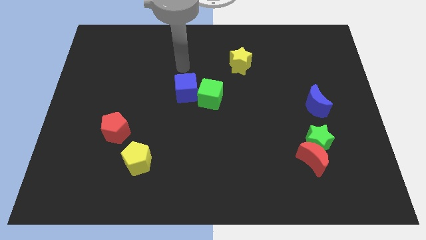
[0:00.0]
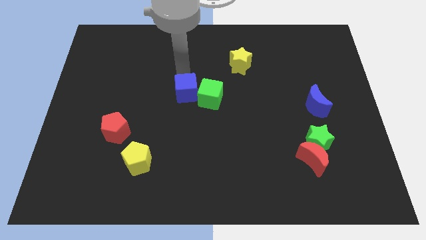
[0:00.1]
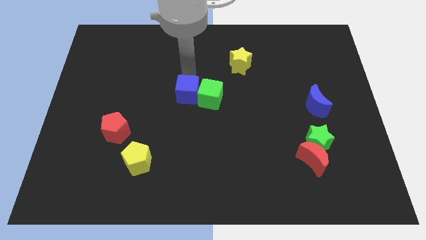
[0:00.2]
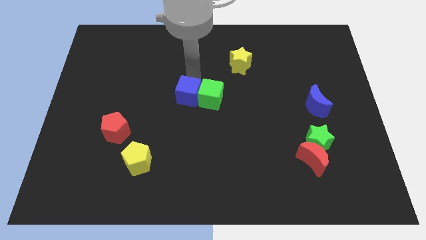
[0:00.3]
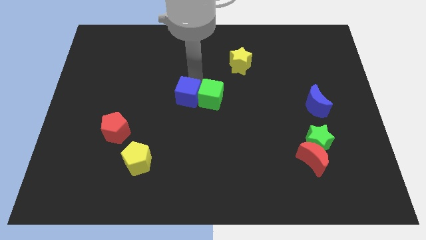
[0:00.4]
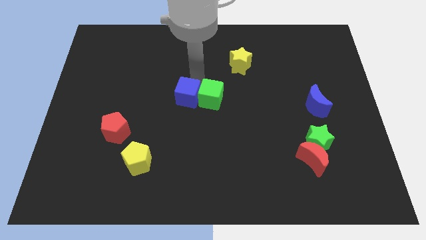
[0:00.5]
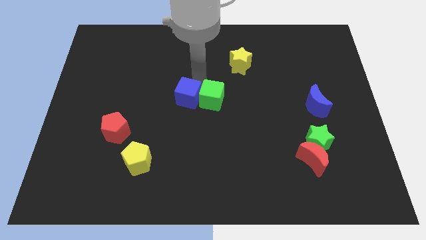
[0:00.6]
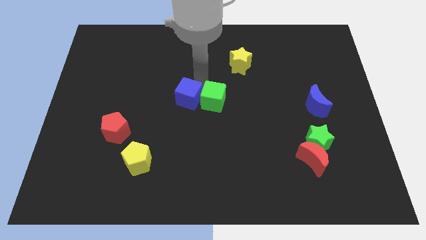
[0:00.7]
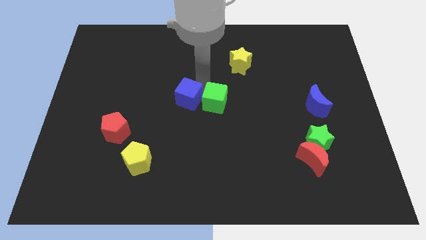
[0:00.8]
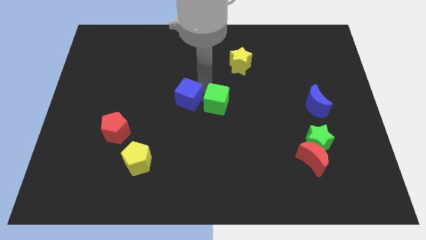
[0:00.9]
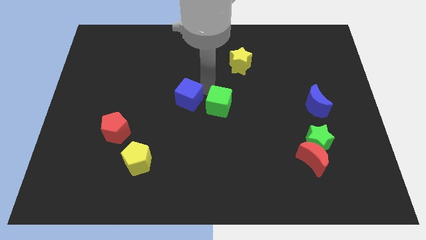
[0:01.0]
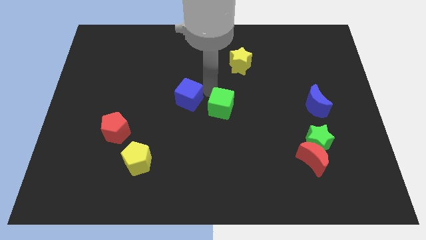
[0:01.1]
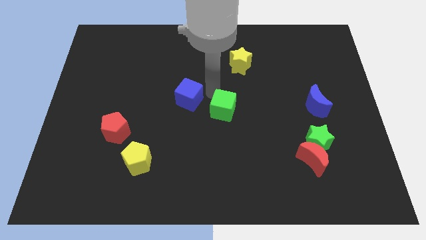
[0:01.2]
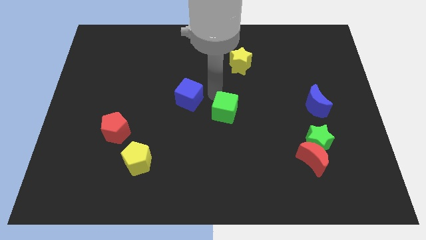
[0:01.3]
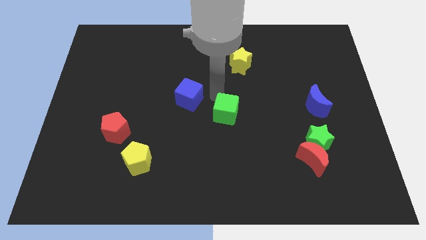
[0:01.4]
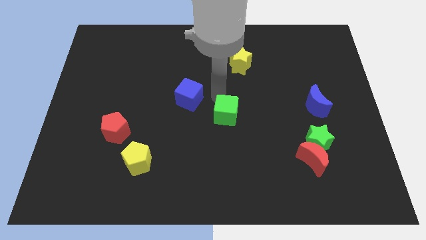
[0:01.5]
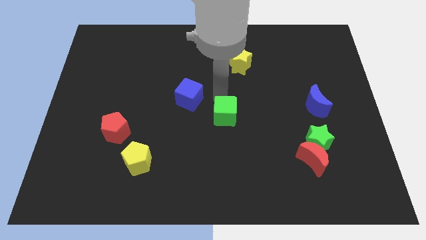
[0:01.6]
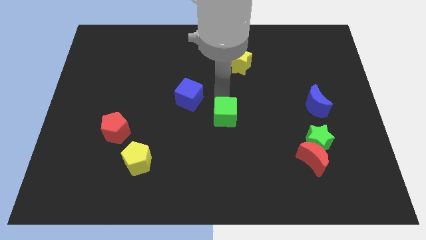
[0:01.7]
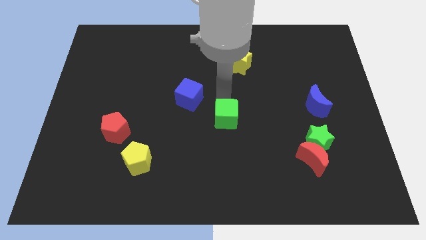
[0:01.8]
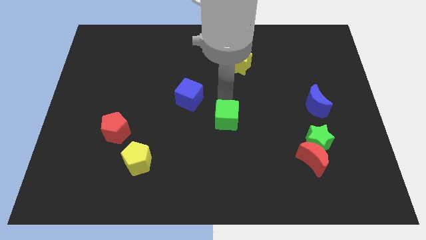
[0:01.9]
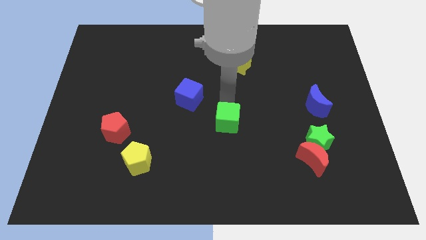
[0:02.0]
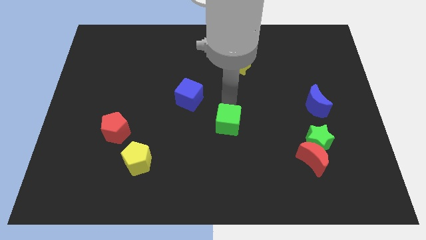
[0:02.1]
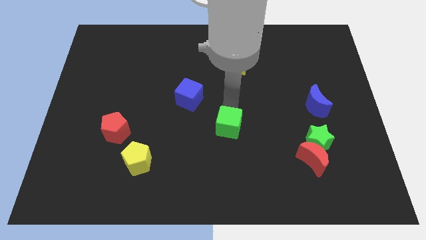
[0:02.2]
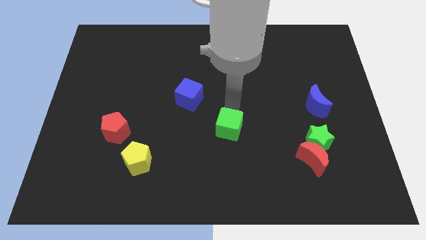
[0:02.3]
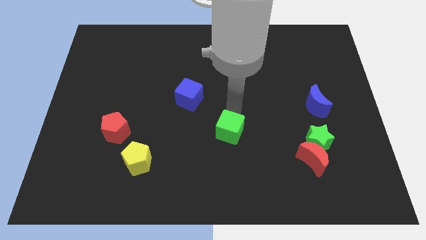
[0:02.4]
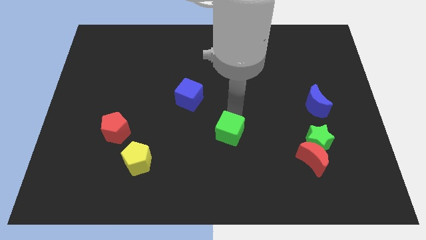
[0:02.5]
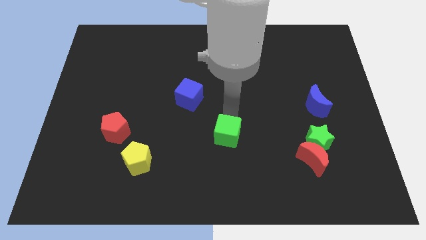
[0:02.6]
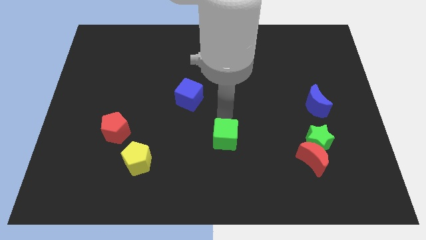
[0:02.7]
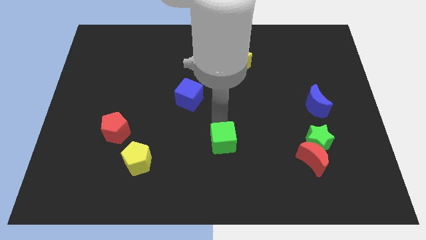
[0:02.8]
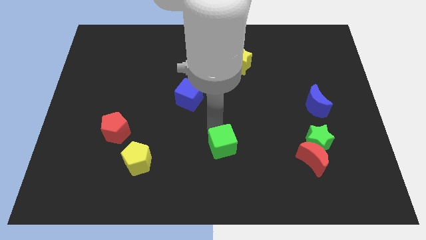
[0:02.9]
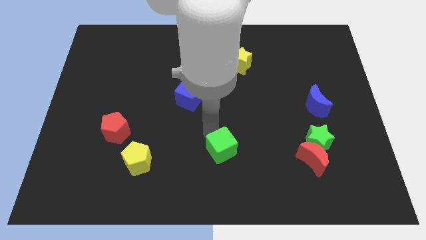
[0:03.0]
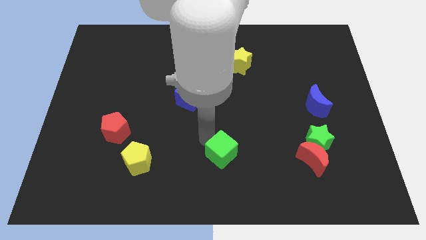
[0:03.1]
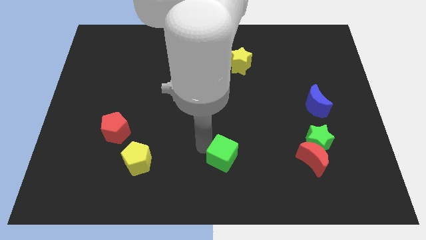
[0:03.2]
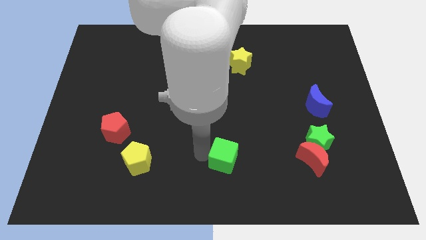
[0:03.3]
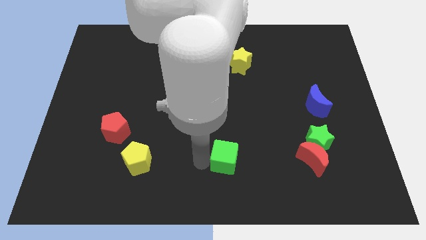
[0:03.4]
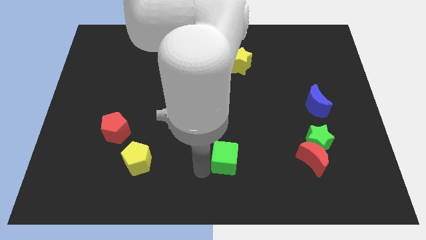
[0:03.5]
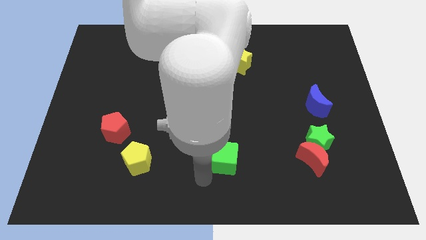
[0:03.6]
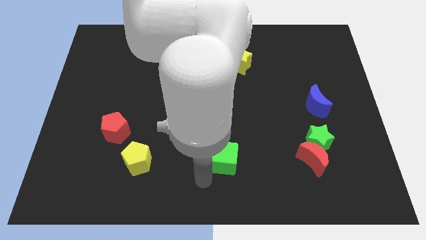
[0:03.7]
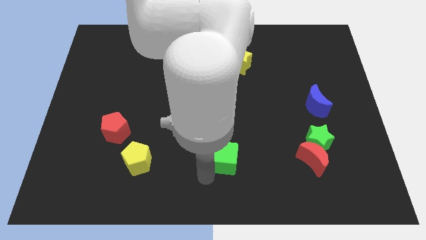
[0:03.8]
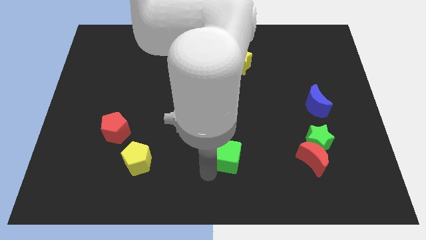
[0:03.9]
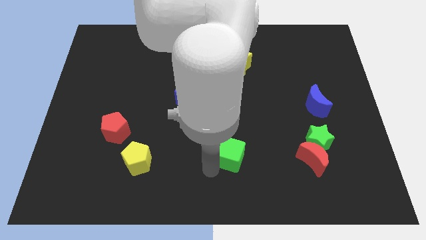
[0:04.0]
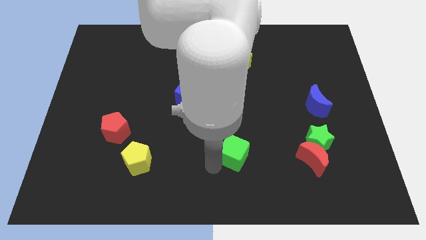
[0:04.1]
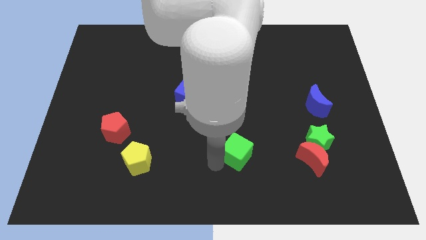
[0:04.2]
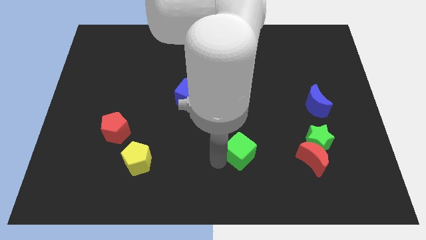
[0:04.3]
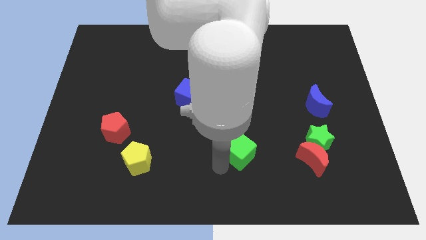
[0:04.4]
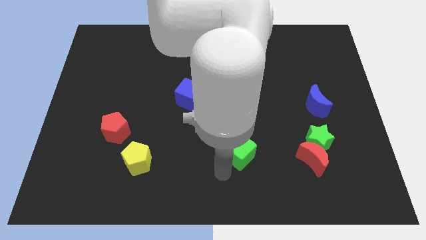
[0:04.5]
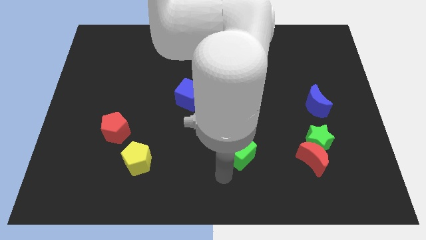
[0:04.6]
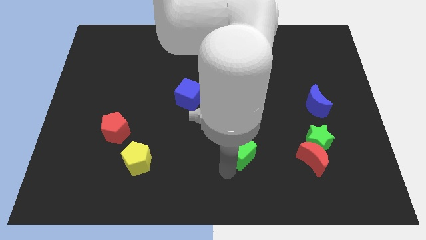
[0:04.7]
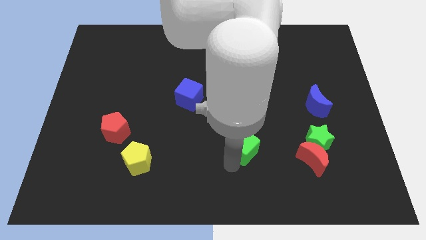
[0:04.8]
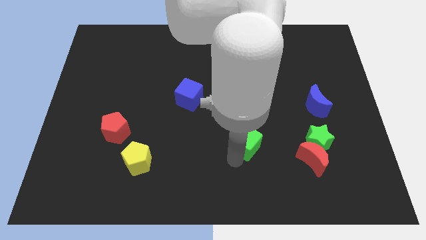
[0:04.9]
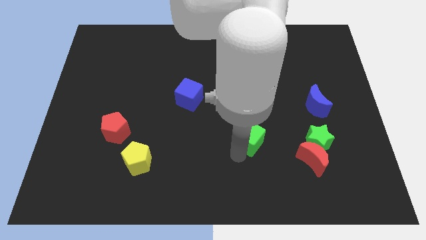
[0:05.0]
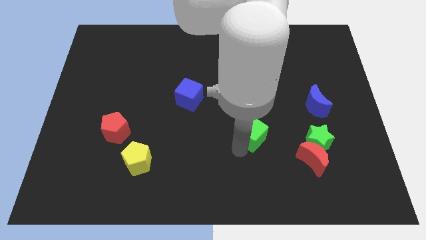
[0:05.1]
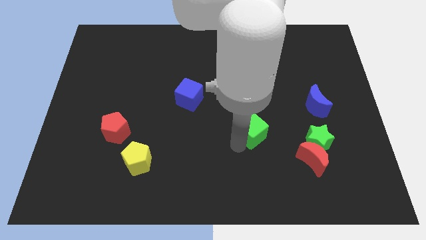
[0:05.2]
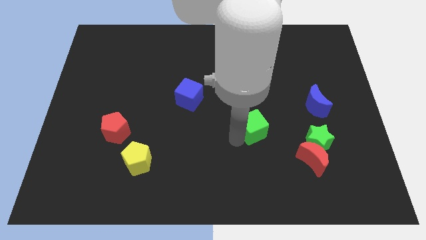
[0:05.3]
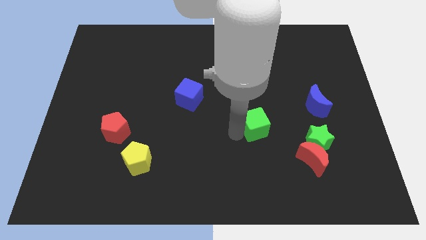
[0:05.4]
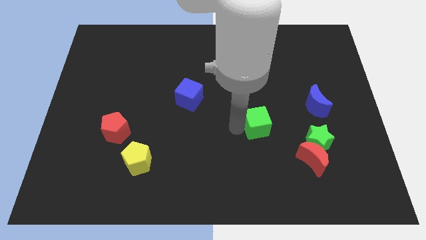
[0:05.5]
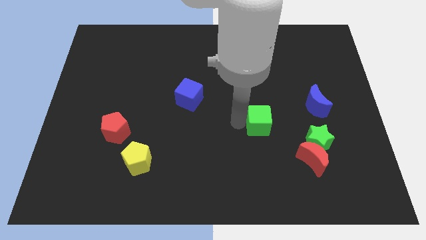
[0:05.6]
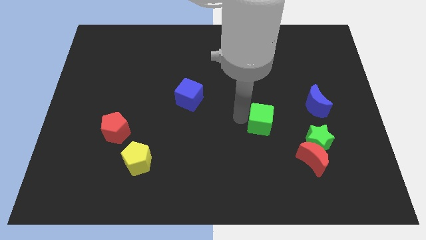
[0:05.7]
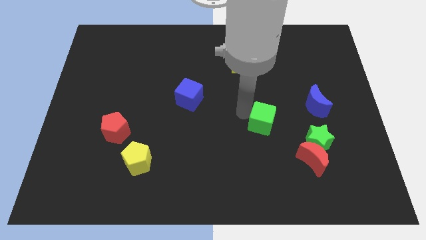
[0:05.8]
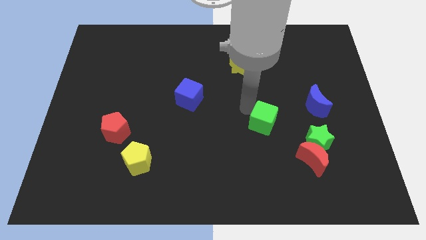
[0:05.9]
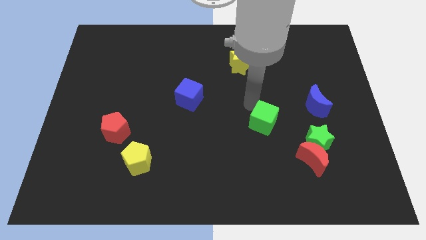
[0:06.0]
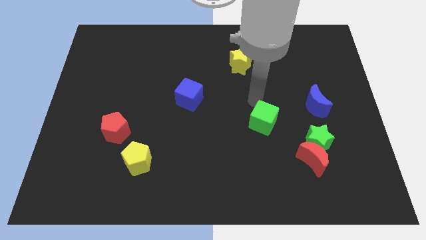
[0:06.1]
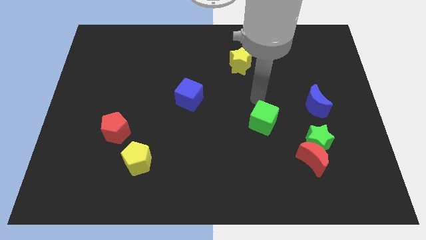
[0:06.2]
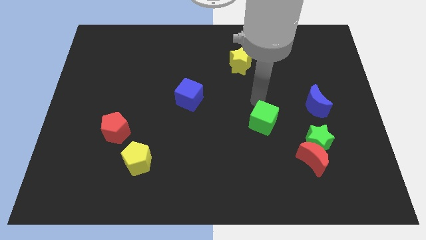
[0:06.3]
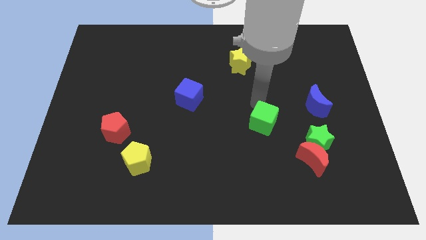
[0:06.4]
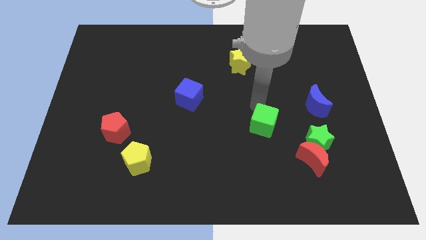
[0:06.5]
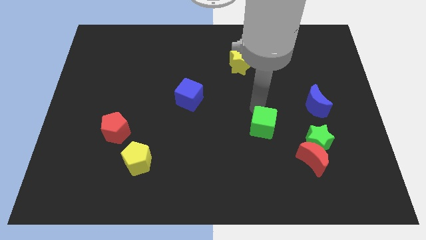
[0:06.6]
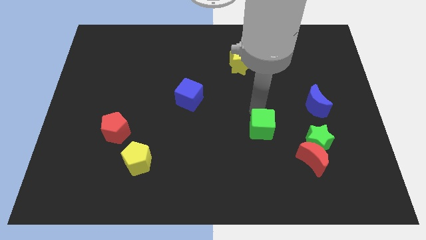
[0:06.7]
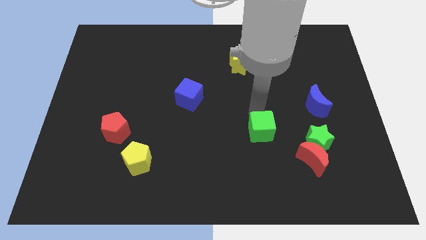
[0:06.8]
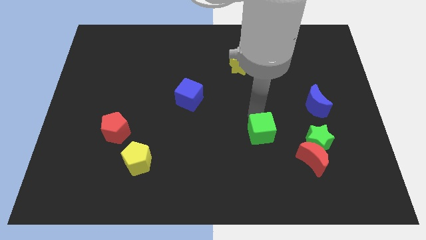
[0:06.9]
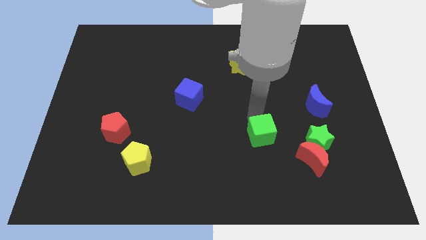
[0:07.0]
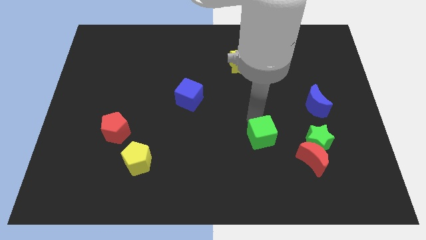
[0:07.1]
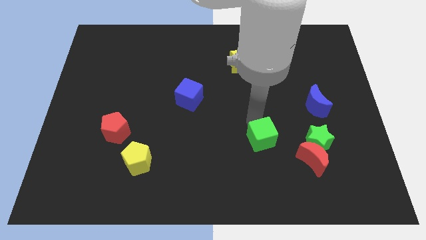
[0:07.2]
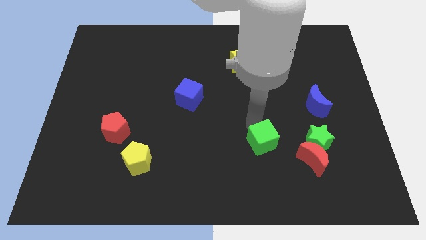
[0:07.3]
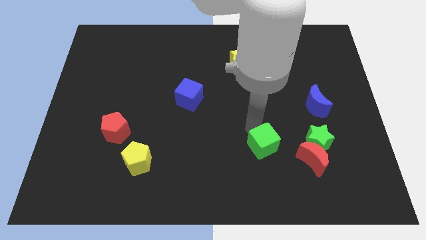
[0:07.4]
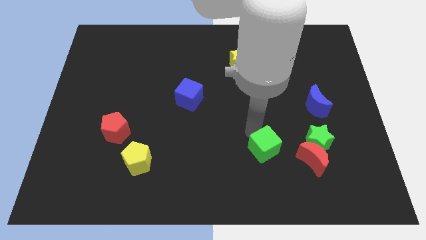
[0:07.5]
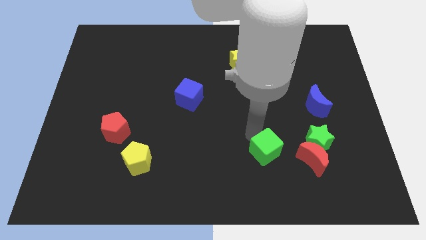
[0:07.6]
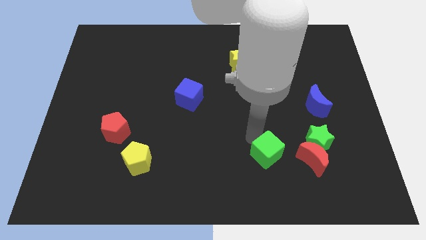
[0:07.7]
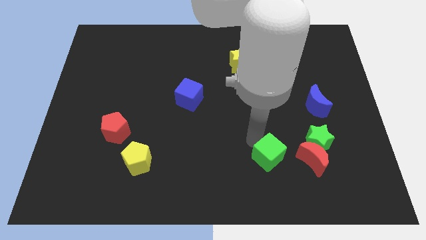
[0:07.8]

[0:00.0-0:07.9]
slide the green cube down and to the right diagonally
